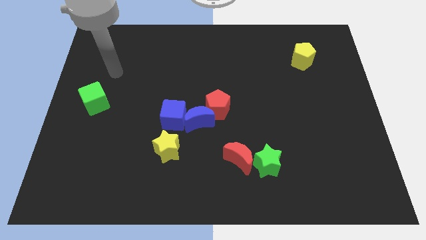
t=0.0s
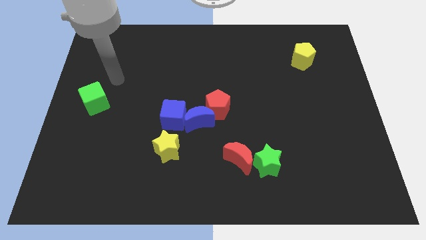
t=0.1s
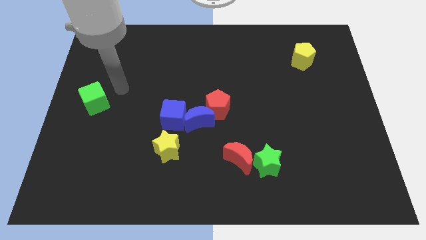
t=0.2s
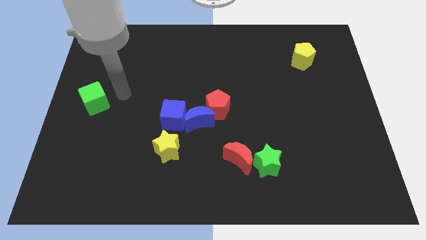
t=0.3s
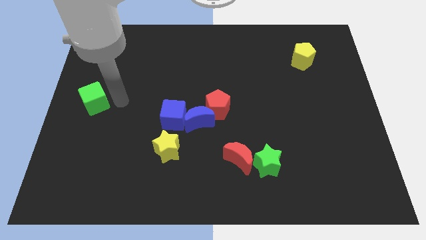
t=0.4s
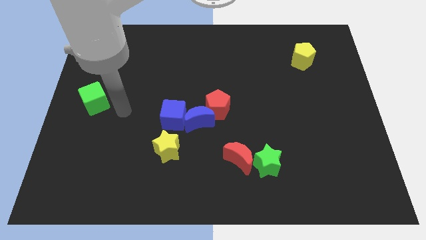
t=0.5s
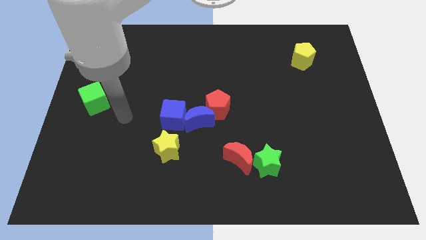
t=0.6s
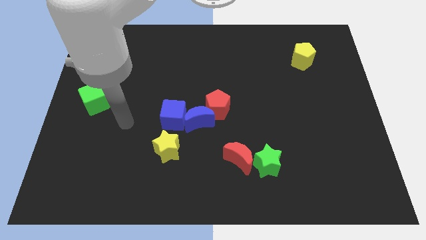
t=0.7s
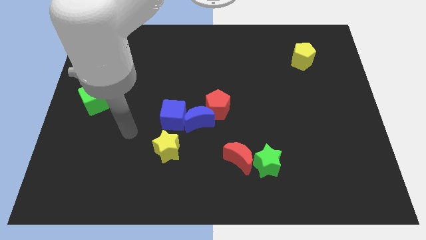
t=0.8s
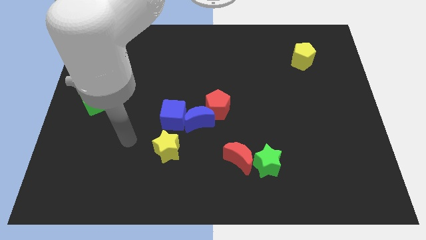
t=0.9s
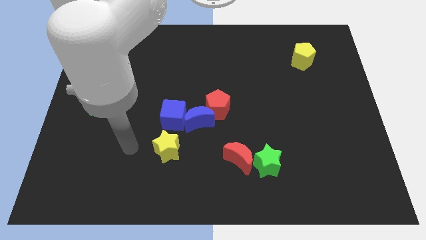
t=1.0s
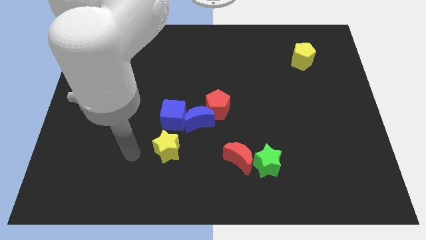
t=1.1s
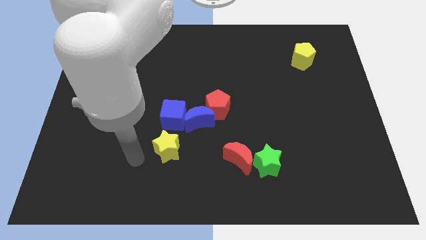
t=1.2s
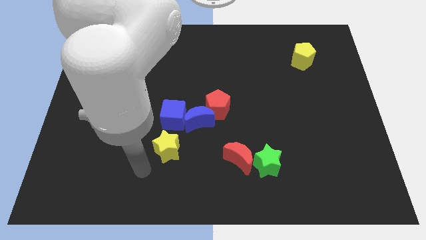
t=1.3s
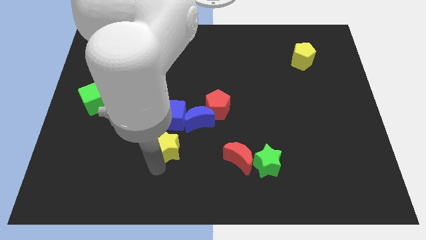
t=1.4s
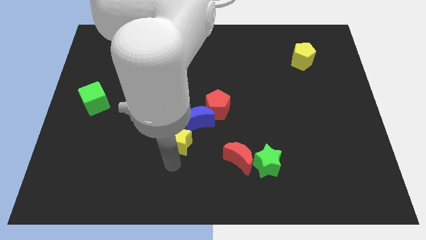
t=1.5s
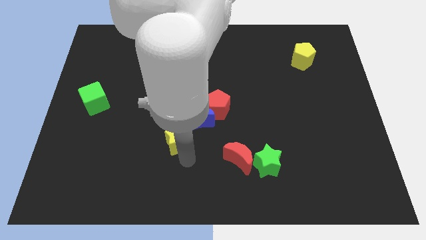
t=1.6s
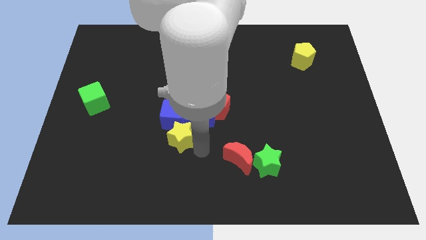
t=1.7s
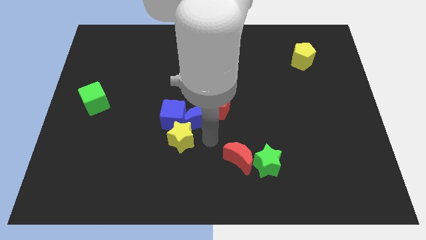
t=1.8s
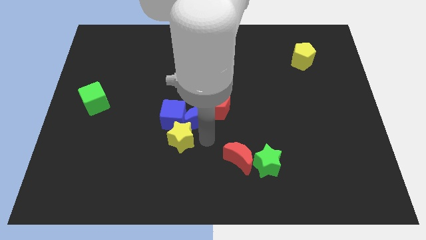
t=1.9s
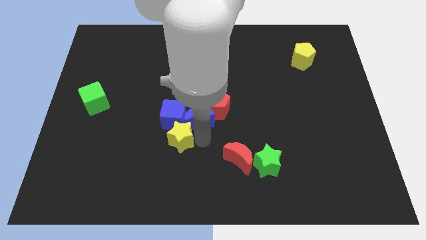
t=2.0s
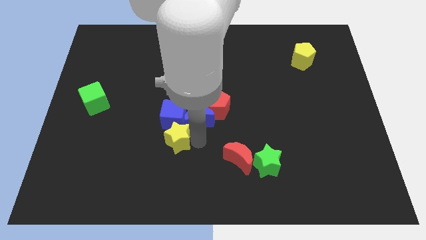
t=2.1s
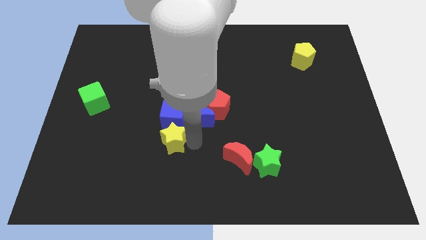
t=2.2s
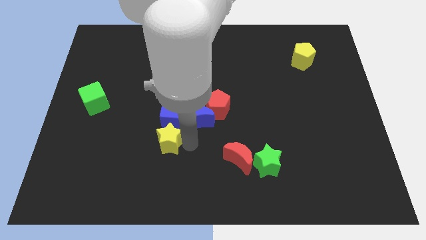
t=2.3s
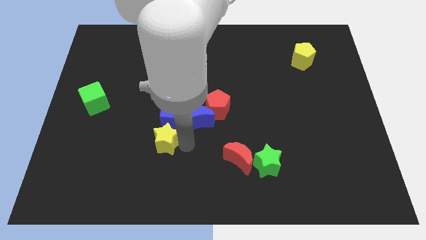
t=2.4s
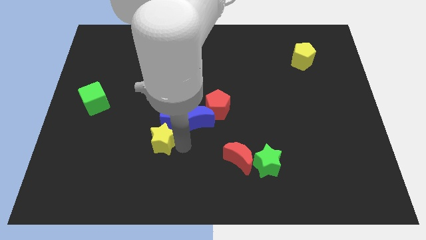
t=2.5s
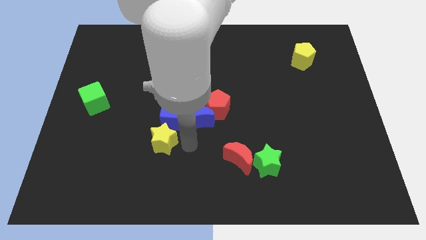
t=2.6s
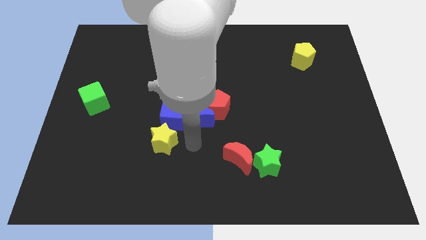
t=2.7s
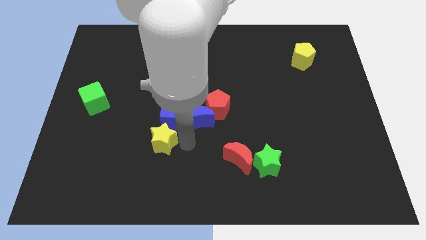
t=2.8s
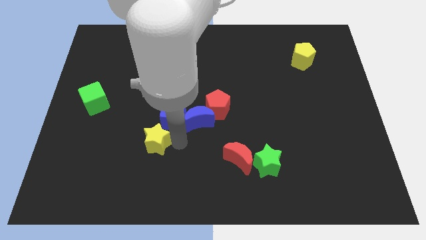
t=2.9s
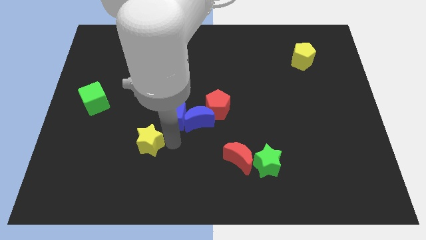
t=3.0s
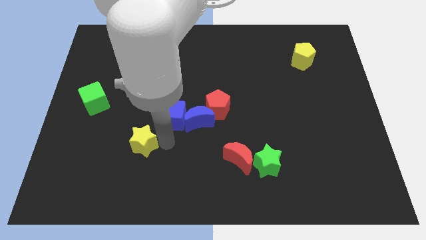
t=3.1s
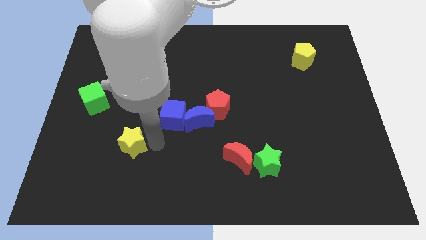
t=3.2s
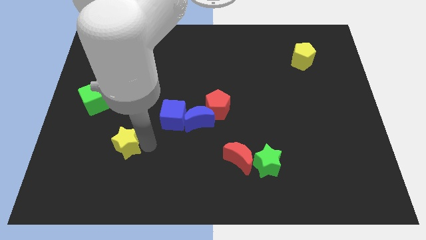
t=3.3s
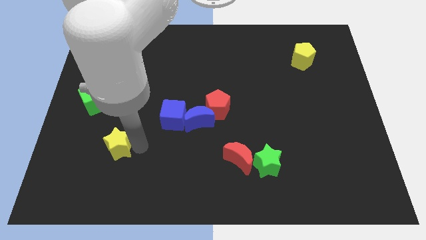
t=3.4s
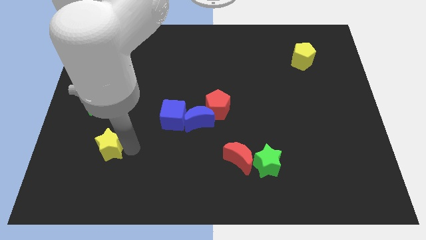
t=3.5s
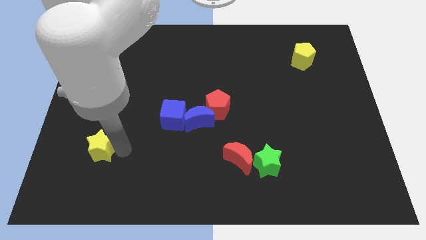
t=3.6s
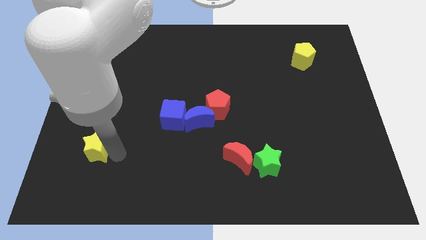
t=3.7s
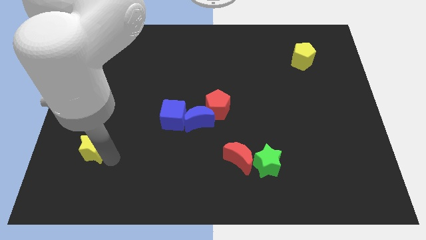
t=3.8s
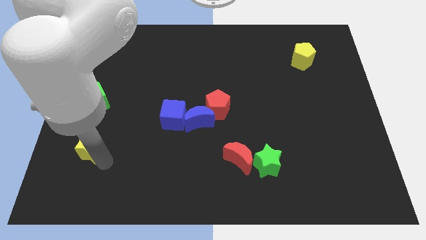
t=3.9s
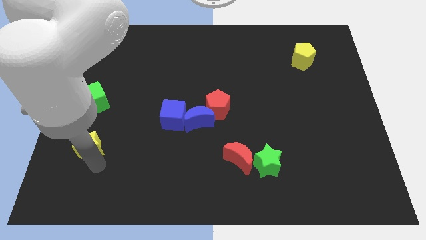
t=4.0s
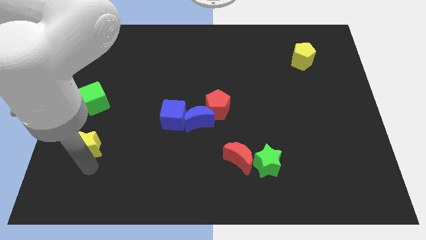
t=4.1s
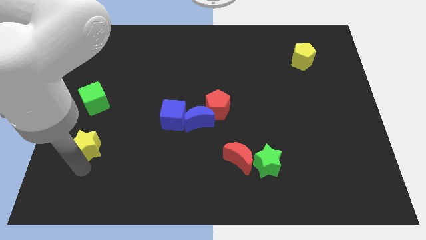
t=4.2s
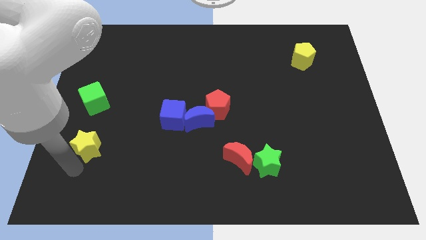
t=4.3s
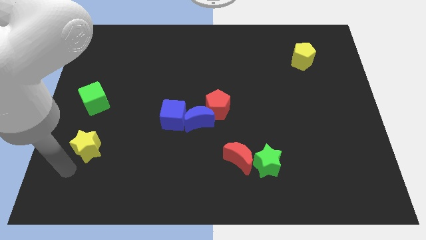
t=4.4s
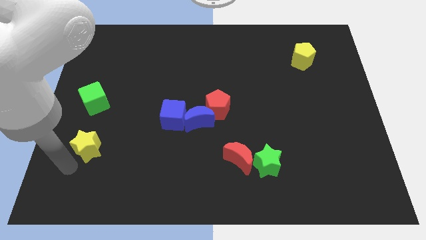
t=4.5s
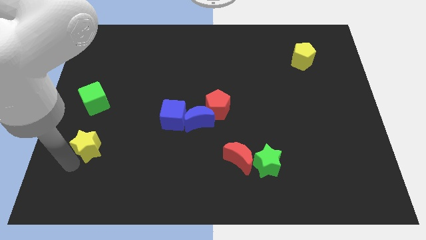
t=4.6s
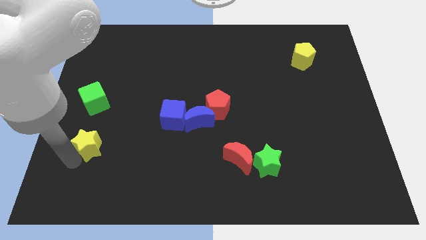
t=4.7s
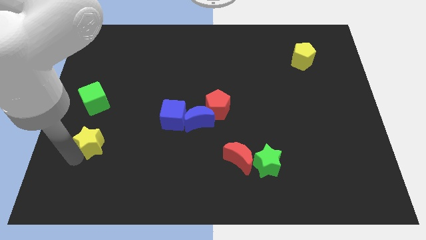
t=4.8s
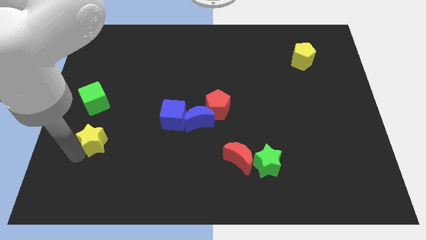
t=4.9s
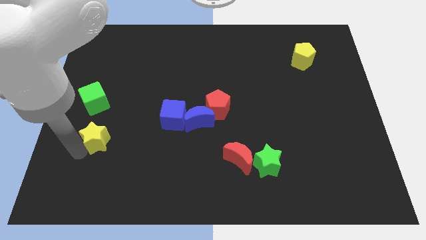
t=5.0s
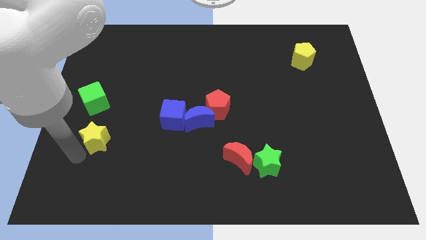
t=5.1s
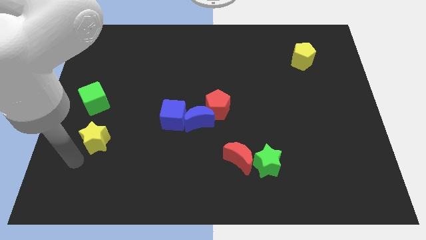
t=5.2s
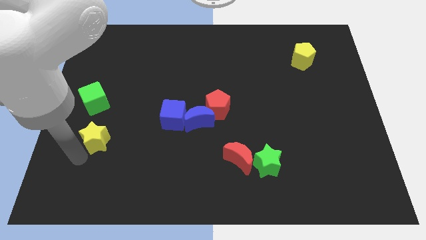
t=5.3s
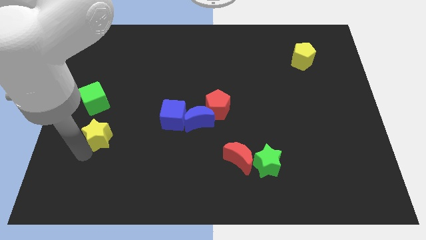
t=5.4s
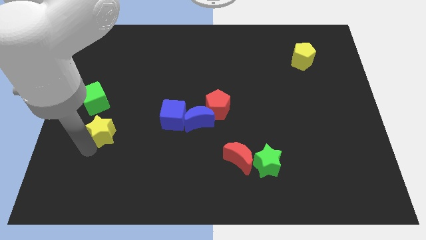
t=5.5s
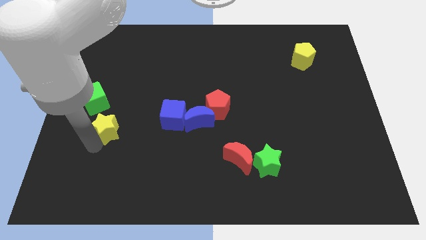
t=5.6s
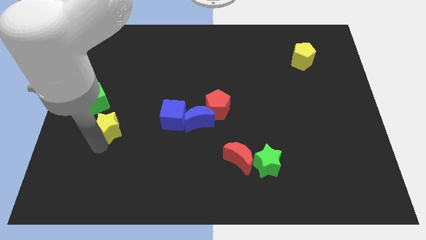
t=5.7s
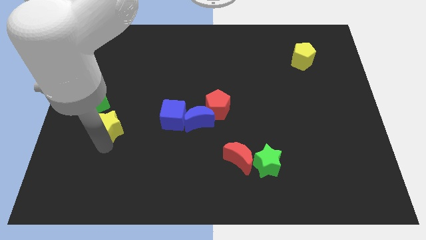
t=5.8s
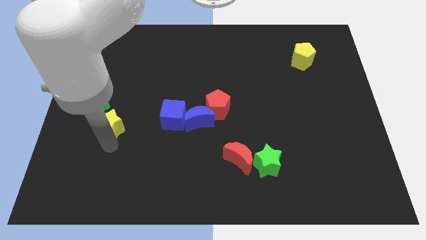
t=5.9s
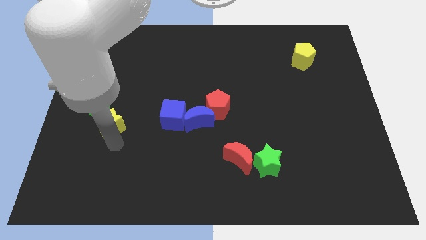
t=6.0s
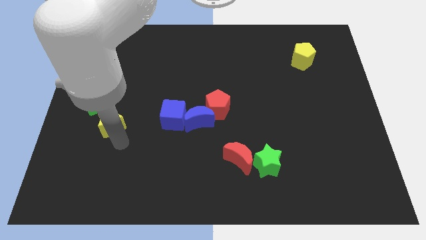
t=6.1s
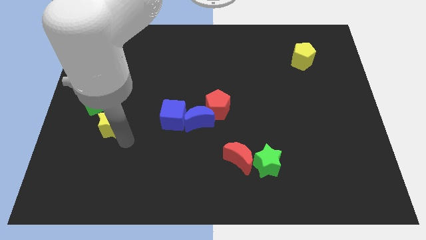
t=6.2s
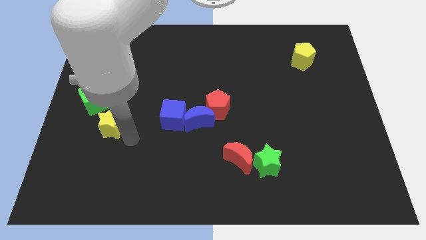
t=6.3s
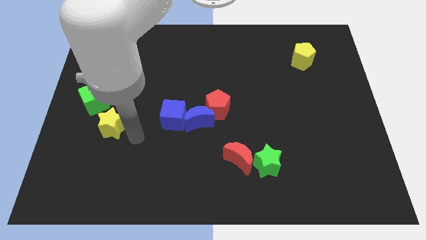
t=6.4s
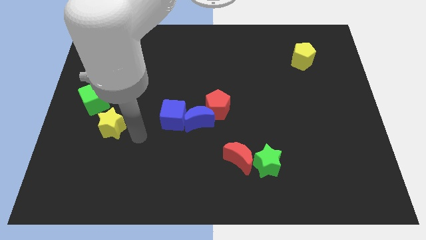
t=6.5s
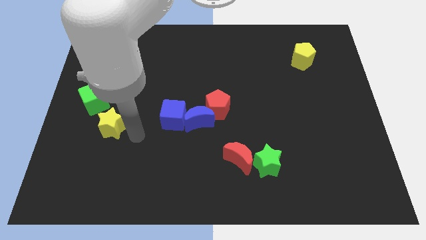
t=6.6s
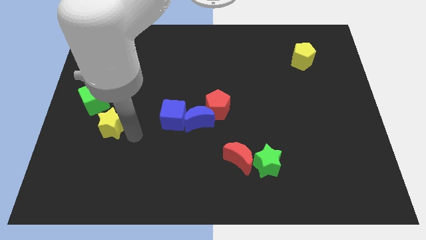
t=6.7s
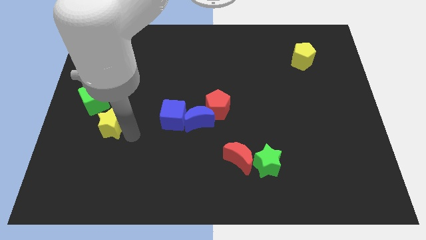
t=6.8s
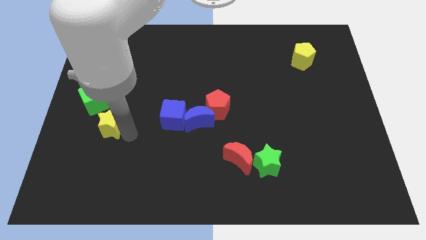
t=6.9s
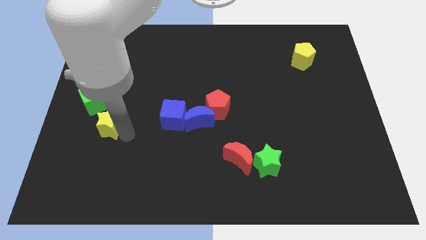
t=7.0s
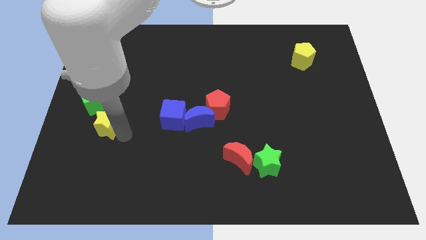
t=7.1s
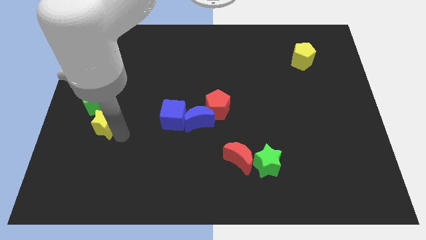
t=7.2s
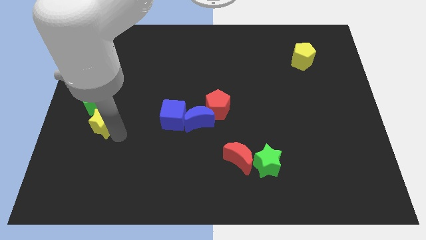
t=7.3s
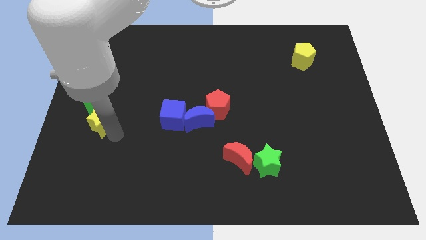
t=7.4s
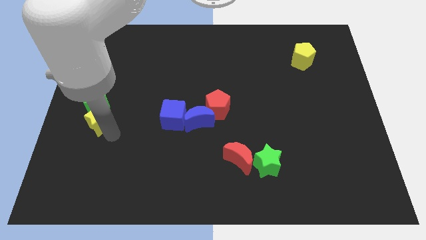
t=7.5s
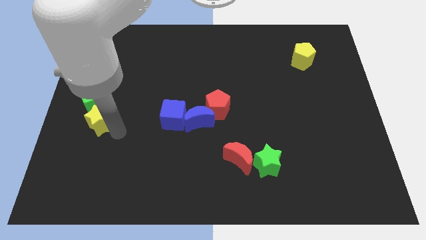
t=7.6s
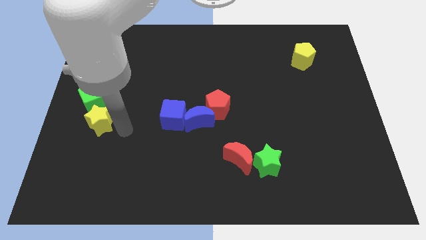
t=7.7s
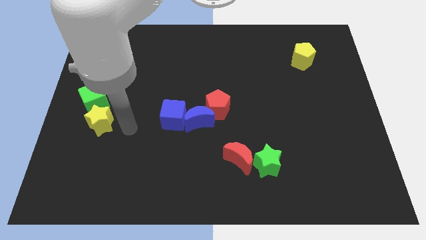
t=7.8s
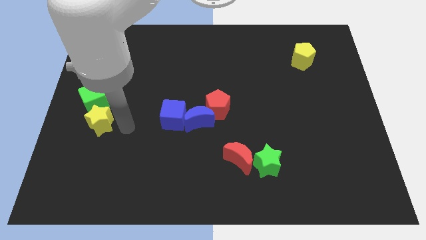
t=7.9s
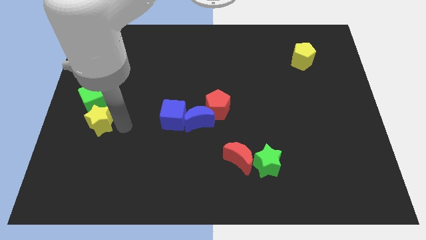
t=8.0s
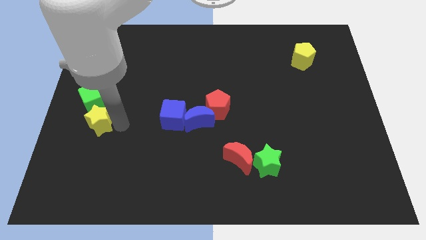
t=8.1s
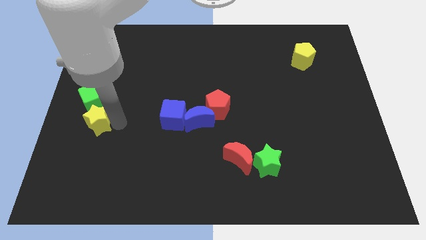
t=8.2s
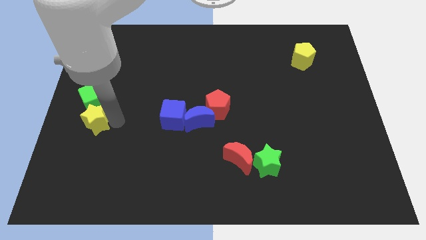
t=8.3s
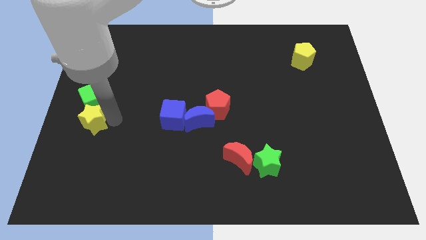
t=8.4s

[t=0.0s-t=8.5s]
move the yellow star to the left side
